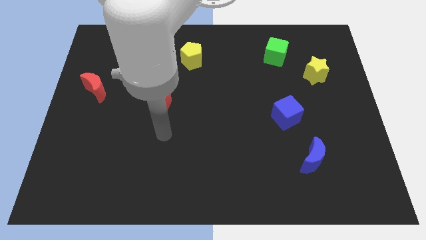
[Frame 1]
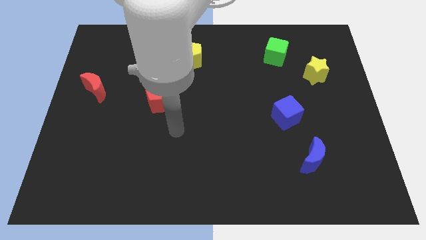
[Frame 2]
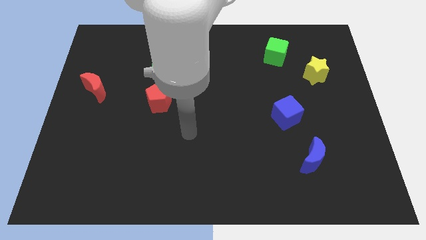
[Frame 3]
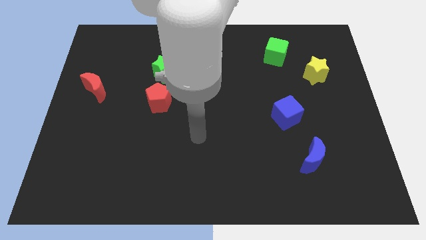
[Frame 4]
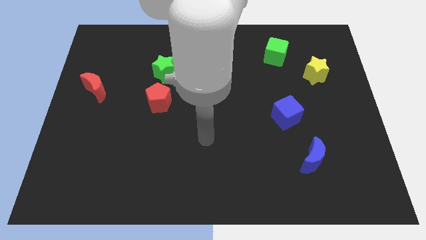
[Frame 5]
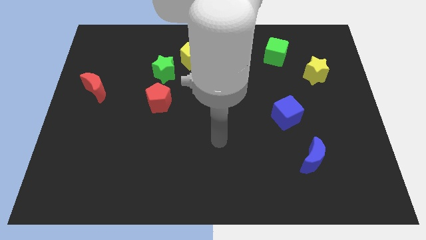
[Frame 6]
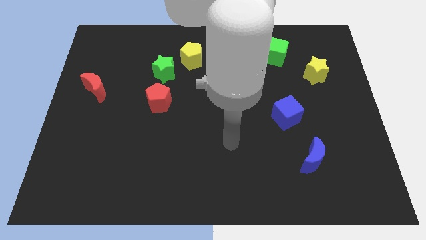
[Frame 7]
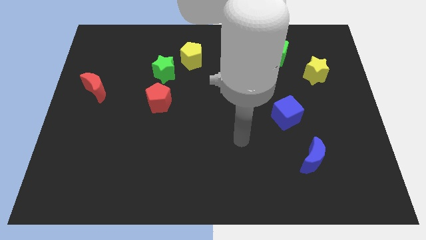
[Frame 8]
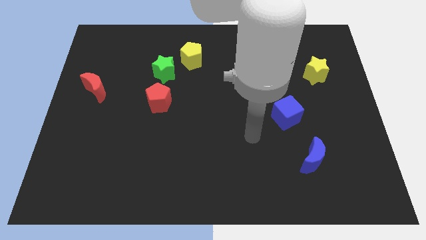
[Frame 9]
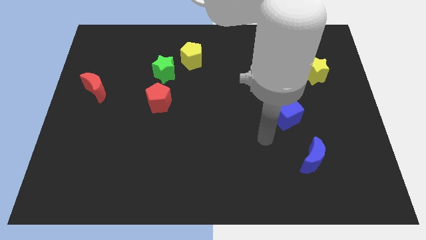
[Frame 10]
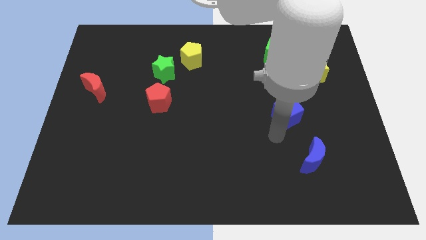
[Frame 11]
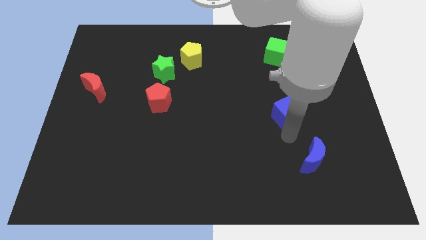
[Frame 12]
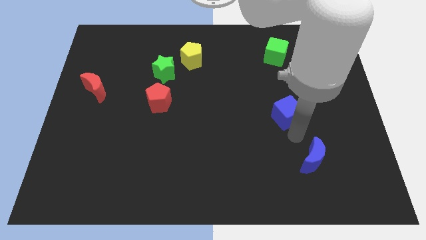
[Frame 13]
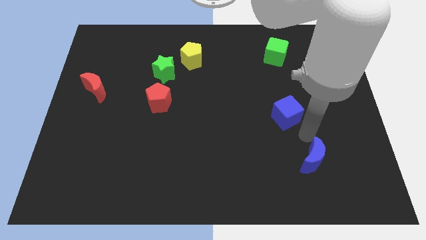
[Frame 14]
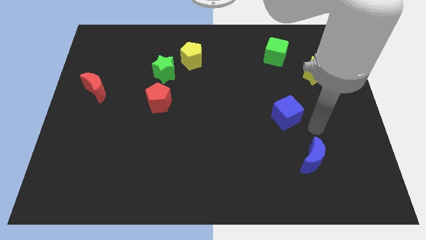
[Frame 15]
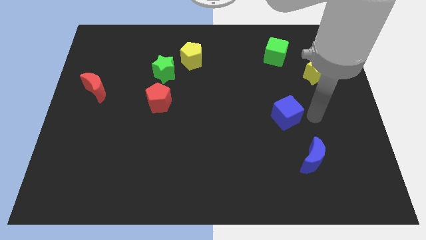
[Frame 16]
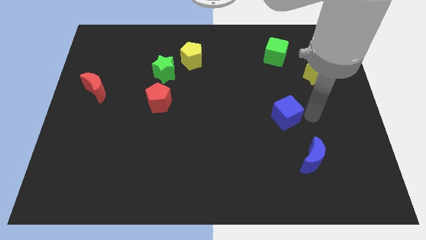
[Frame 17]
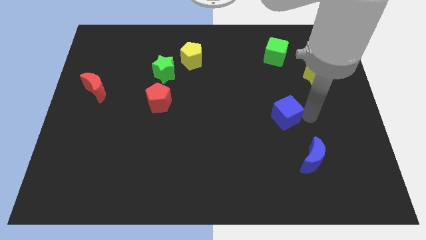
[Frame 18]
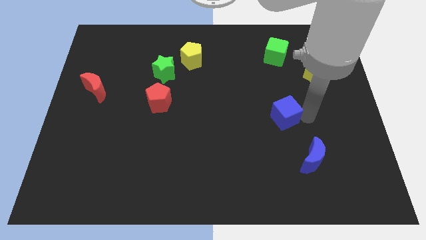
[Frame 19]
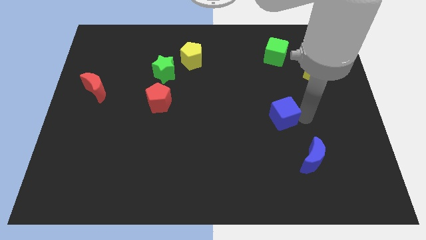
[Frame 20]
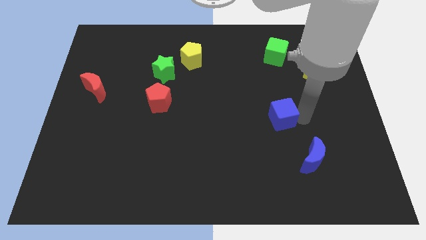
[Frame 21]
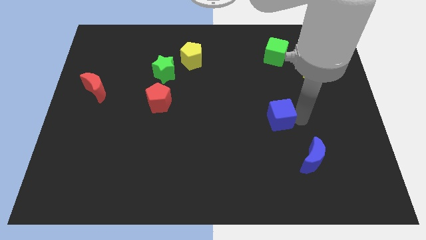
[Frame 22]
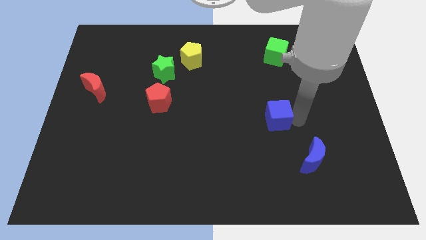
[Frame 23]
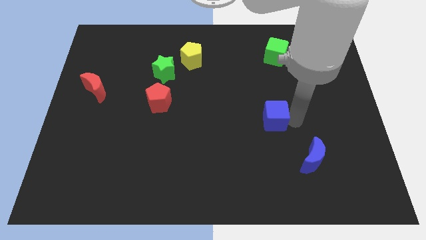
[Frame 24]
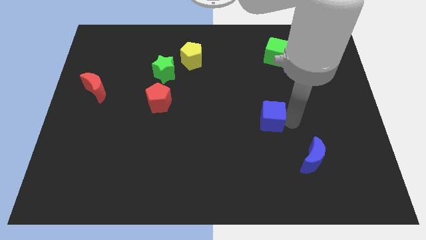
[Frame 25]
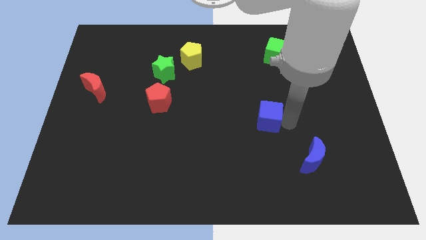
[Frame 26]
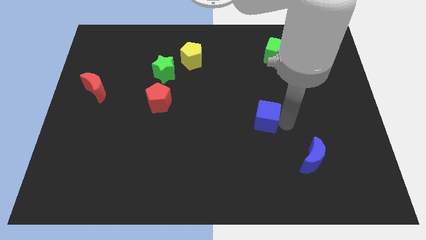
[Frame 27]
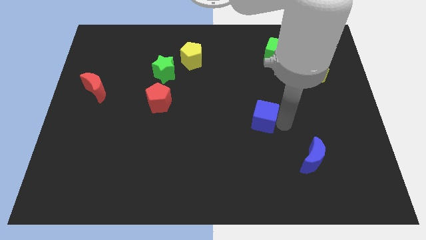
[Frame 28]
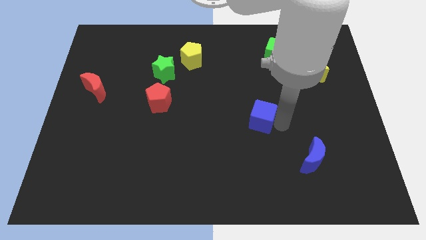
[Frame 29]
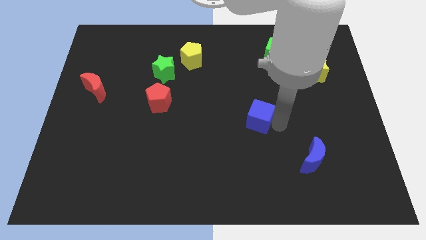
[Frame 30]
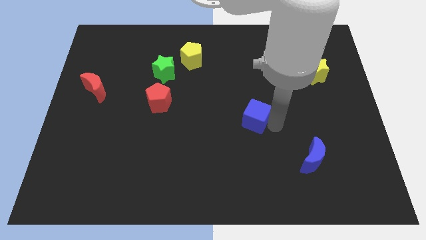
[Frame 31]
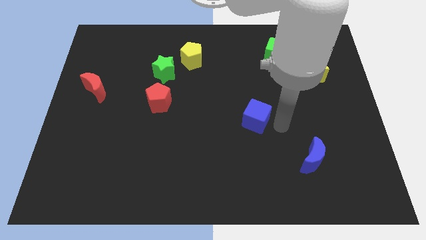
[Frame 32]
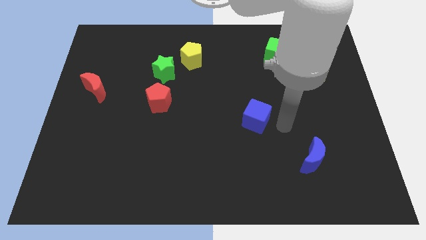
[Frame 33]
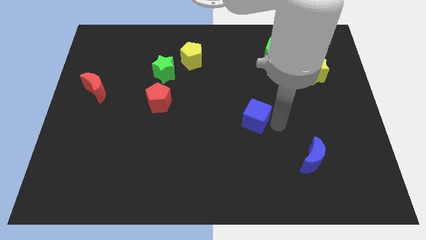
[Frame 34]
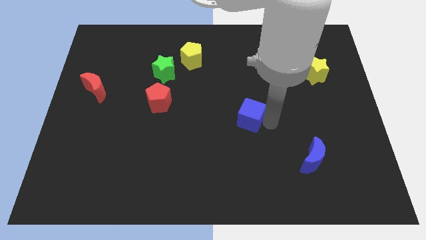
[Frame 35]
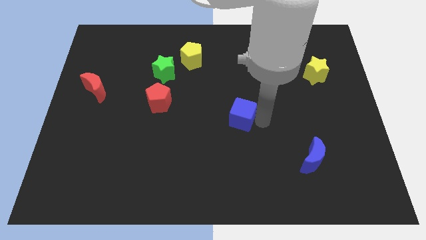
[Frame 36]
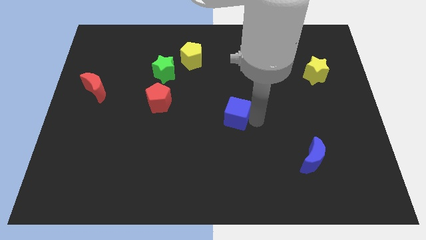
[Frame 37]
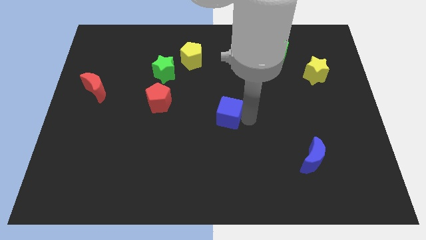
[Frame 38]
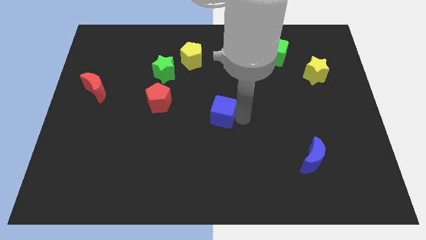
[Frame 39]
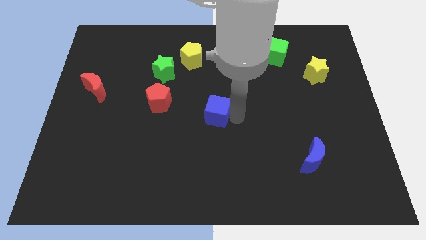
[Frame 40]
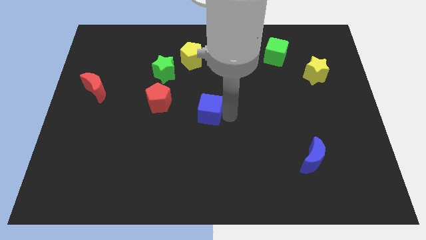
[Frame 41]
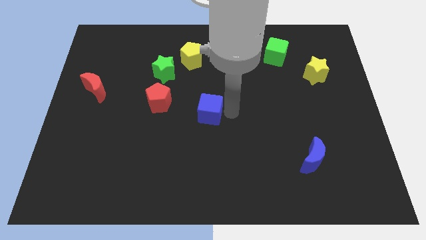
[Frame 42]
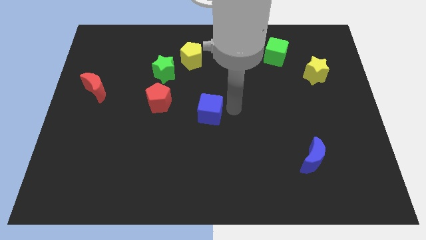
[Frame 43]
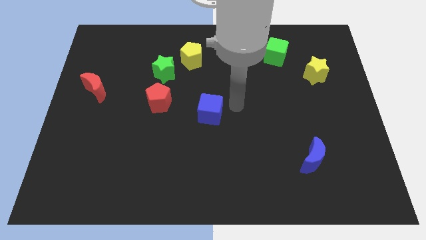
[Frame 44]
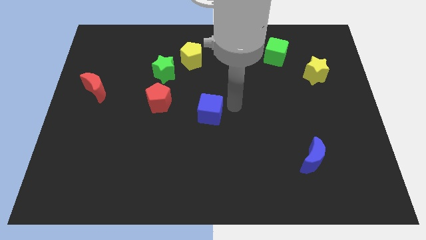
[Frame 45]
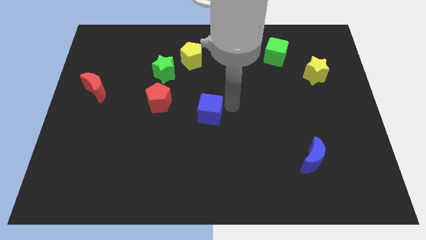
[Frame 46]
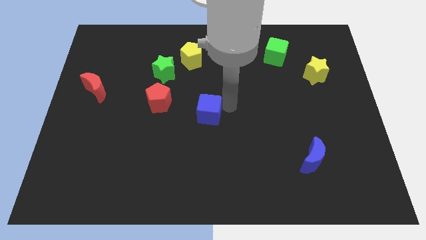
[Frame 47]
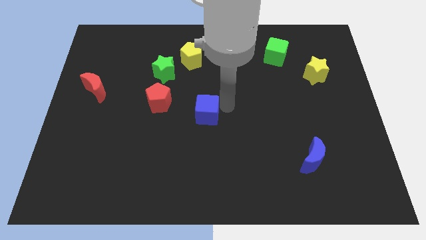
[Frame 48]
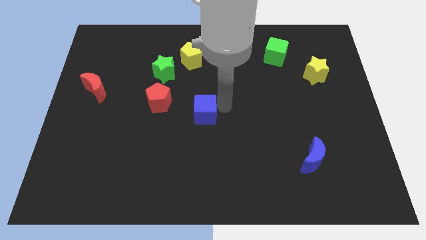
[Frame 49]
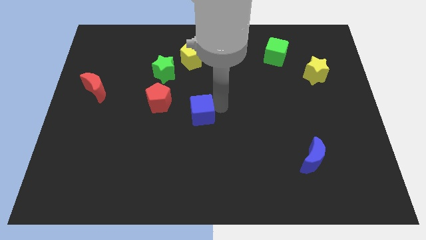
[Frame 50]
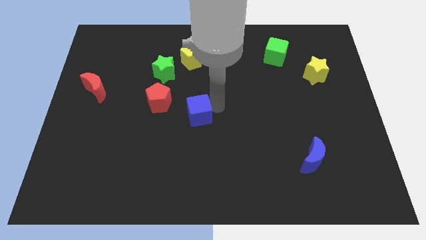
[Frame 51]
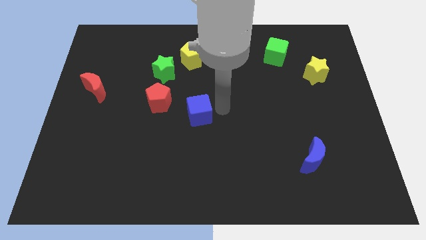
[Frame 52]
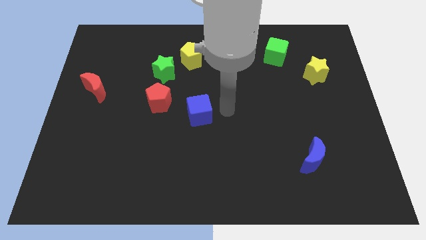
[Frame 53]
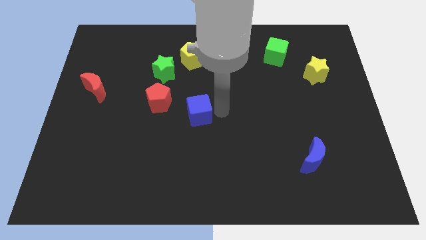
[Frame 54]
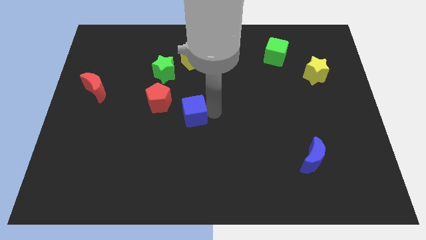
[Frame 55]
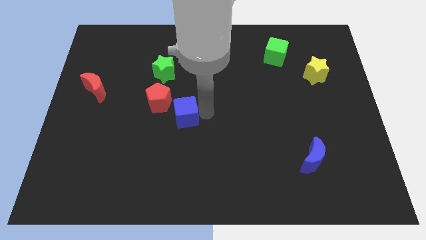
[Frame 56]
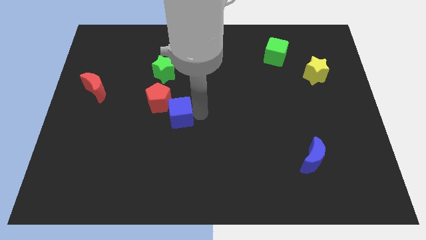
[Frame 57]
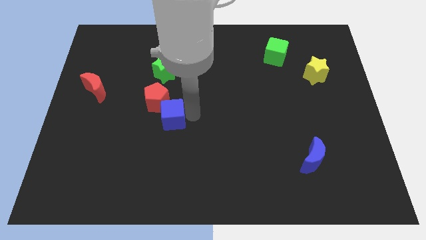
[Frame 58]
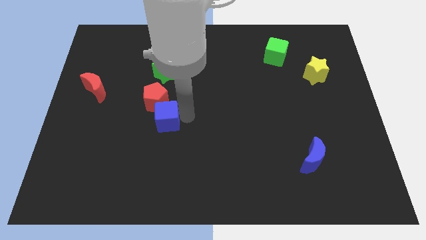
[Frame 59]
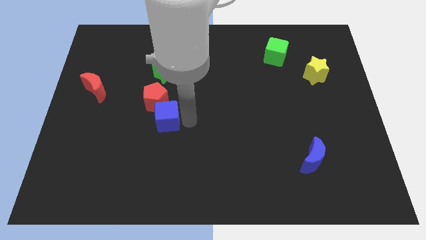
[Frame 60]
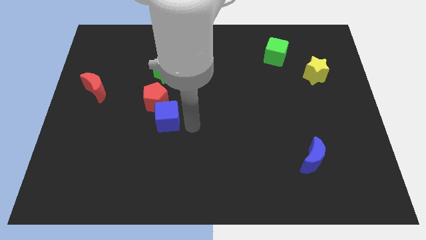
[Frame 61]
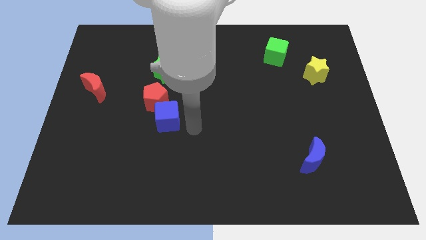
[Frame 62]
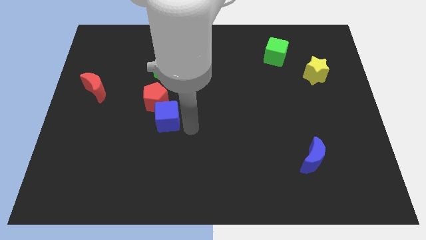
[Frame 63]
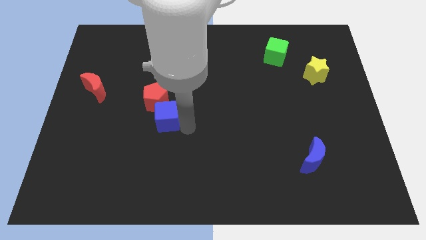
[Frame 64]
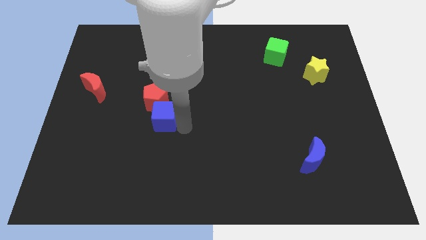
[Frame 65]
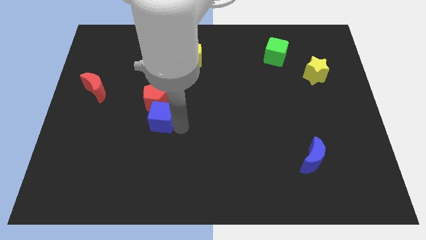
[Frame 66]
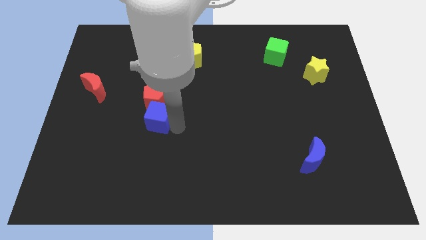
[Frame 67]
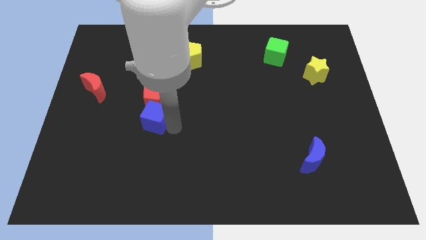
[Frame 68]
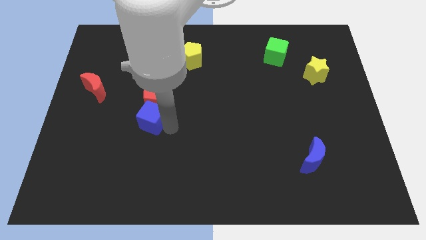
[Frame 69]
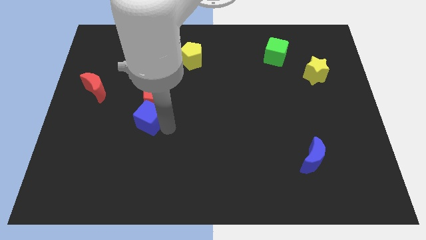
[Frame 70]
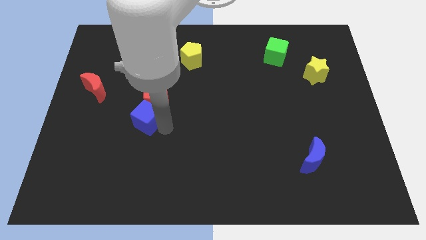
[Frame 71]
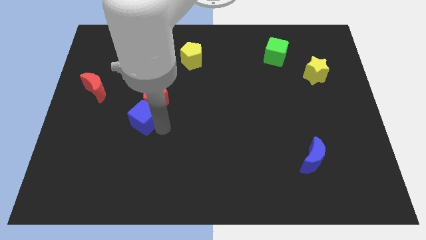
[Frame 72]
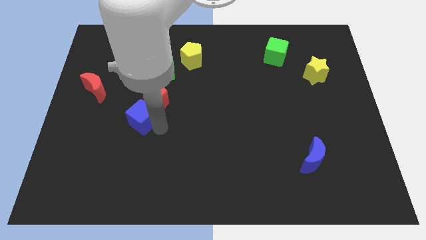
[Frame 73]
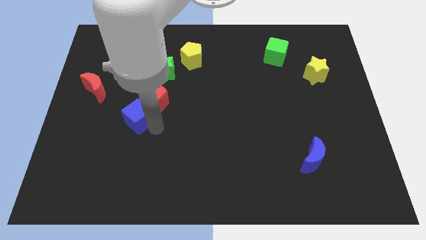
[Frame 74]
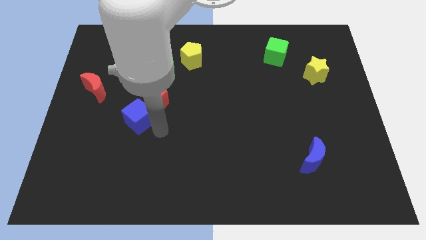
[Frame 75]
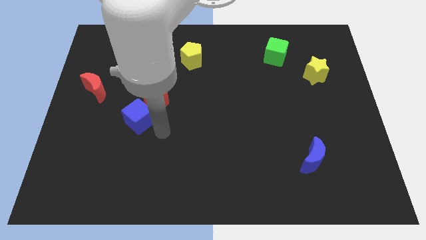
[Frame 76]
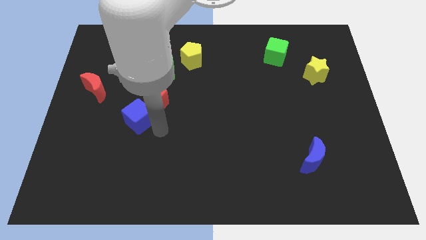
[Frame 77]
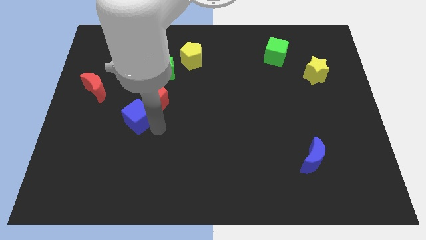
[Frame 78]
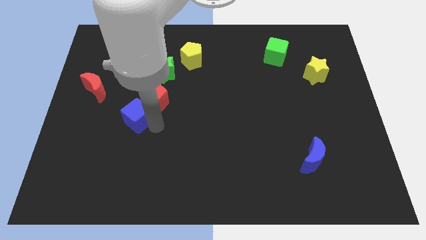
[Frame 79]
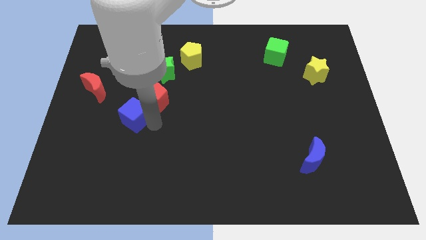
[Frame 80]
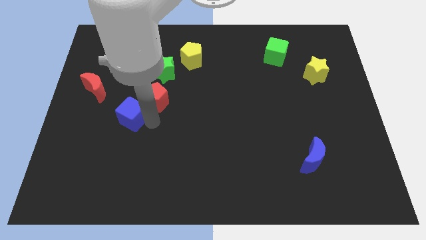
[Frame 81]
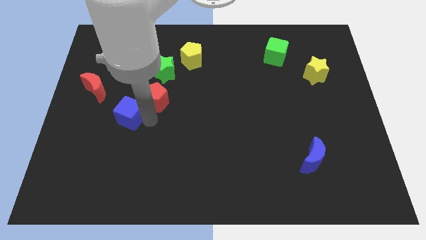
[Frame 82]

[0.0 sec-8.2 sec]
push the blue cube to the bottom right side of the red moon
